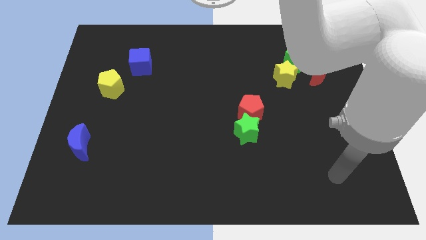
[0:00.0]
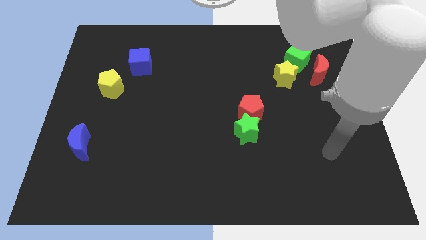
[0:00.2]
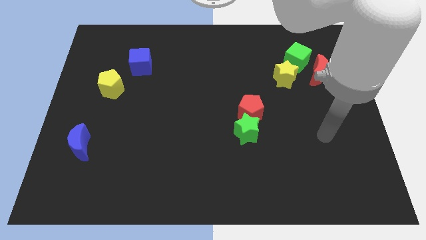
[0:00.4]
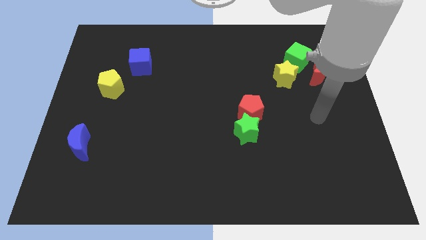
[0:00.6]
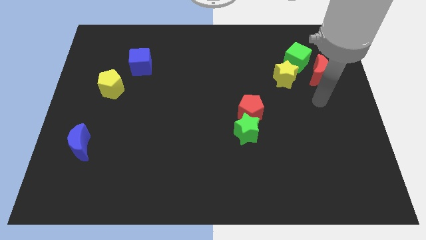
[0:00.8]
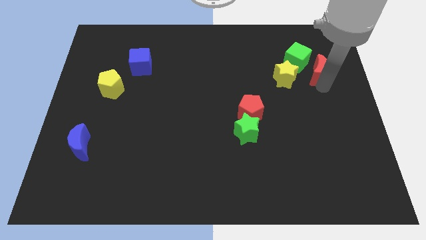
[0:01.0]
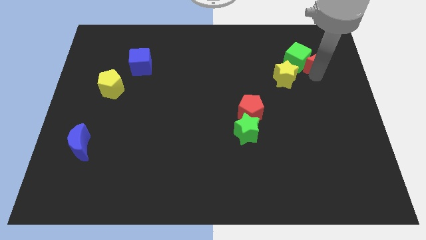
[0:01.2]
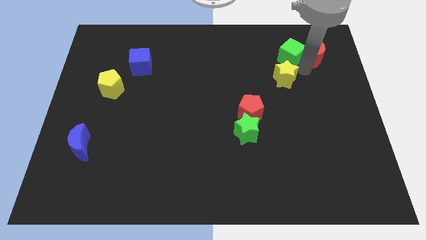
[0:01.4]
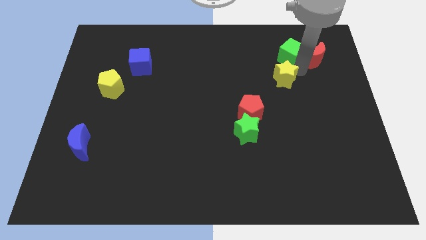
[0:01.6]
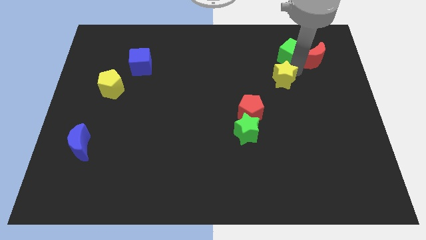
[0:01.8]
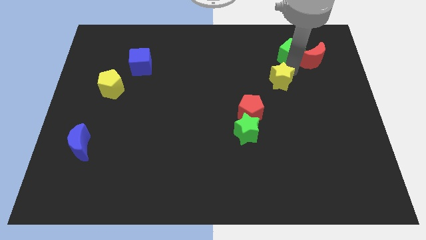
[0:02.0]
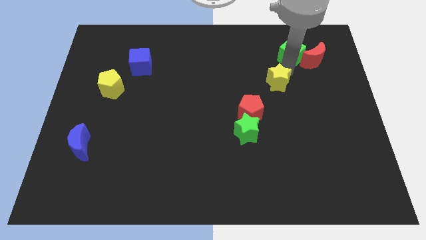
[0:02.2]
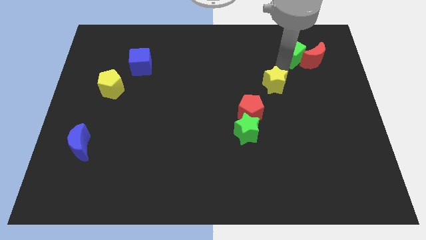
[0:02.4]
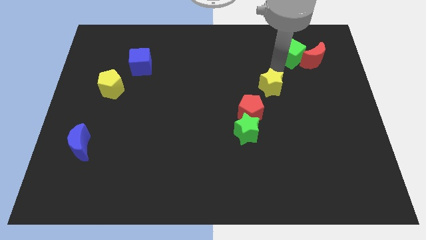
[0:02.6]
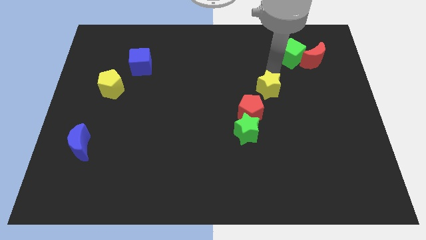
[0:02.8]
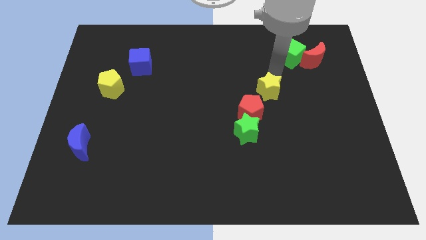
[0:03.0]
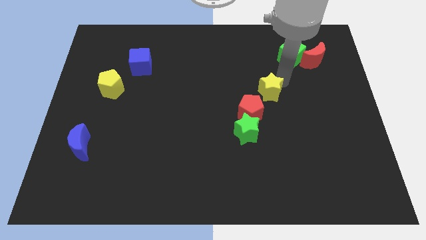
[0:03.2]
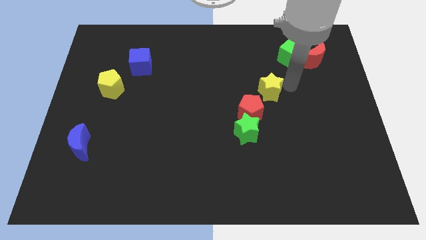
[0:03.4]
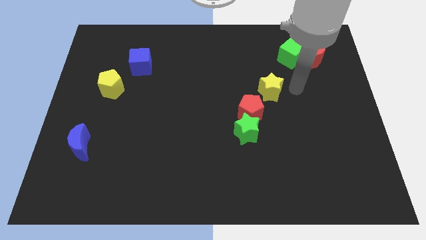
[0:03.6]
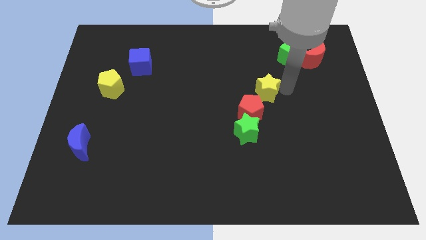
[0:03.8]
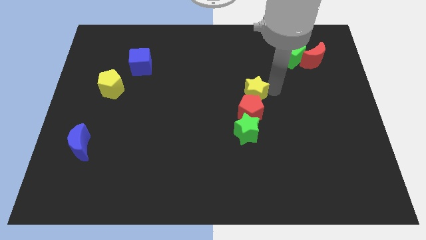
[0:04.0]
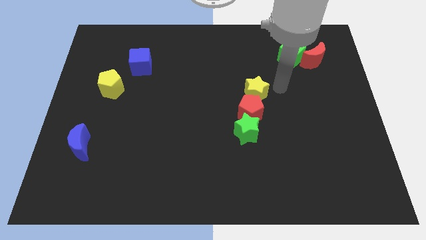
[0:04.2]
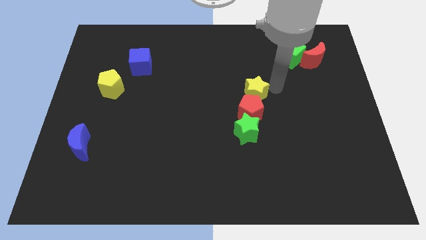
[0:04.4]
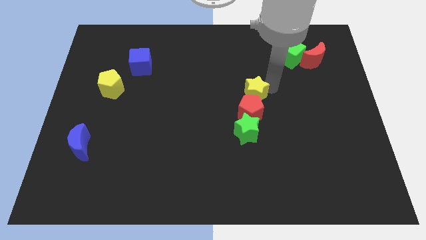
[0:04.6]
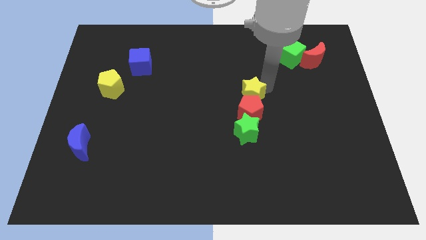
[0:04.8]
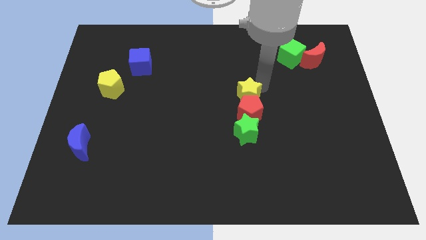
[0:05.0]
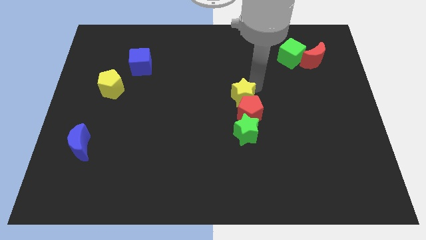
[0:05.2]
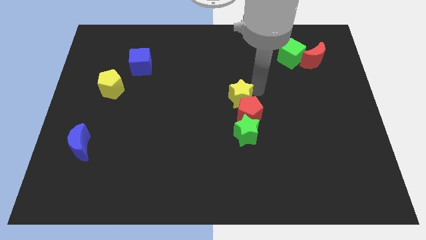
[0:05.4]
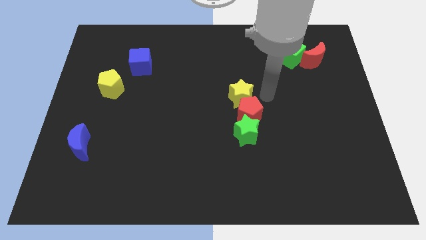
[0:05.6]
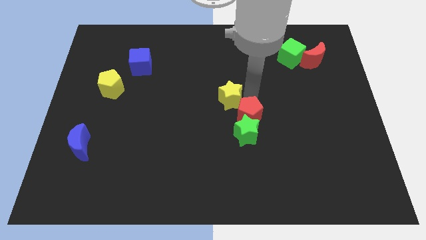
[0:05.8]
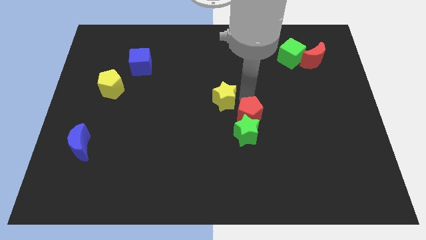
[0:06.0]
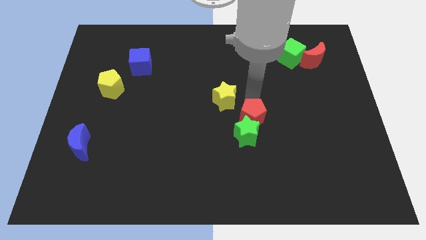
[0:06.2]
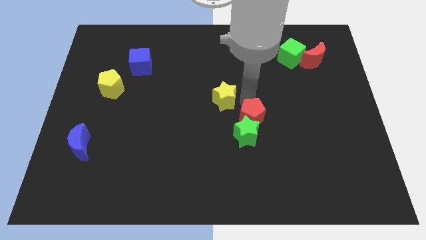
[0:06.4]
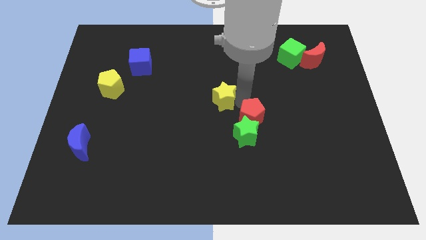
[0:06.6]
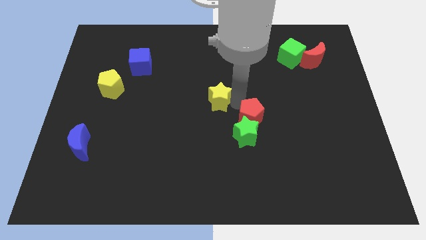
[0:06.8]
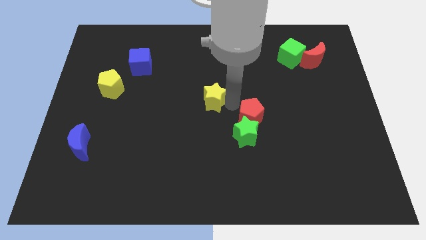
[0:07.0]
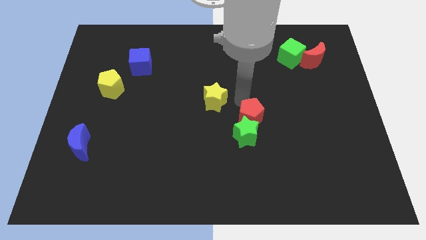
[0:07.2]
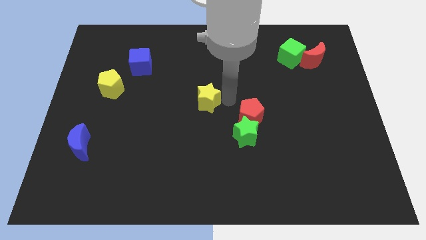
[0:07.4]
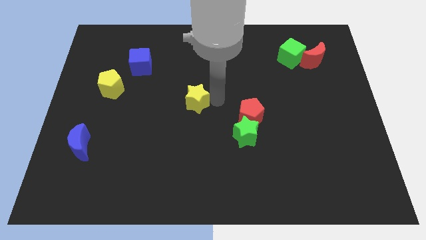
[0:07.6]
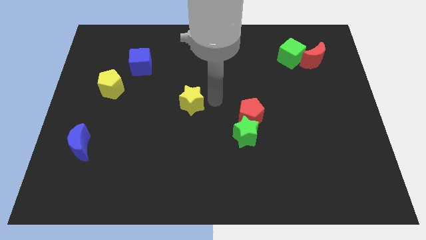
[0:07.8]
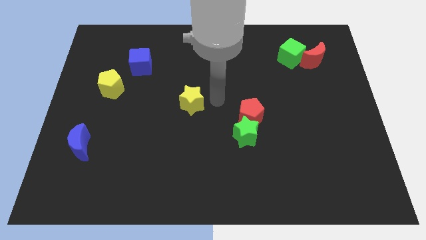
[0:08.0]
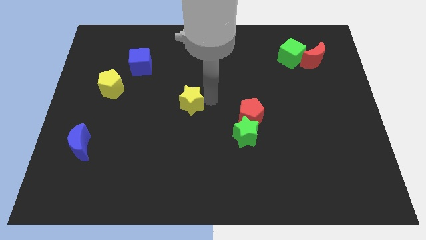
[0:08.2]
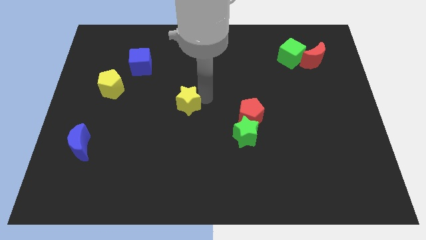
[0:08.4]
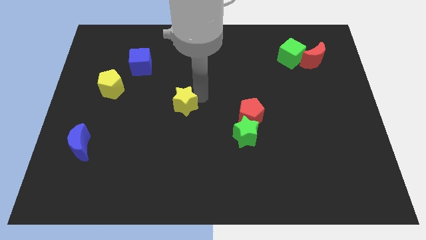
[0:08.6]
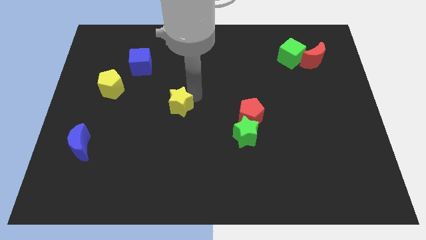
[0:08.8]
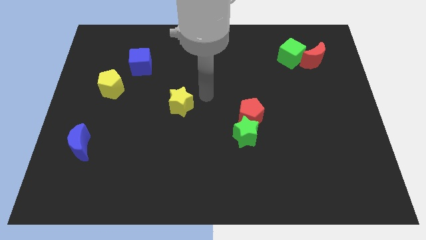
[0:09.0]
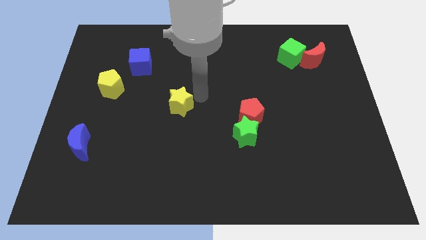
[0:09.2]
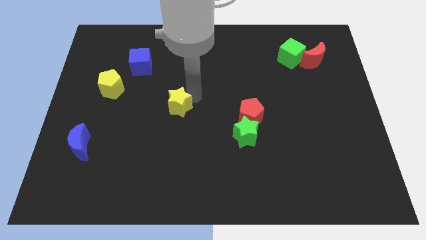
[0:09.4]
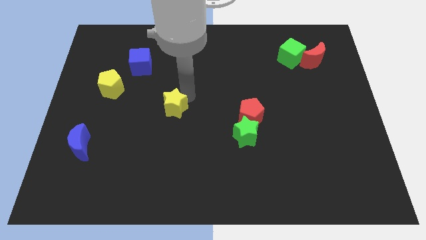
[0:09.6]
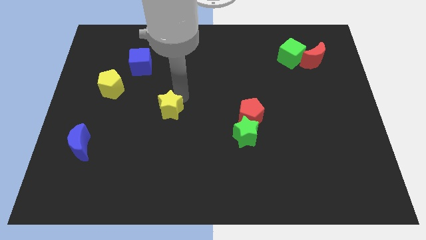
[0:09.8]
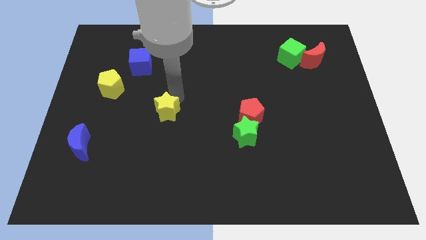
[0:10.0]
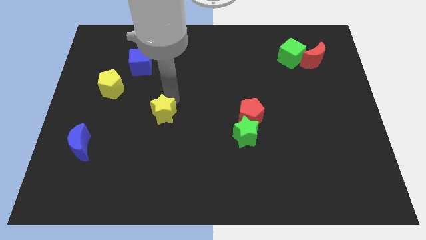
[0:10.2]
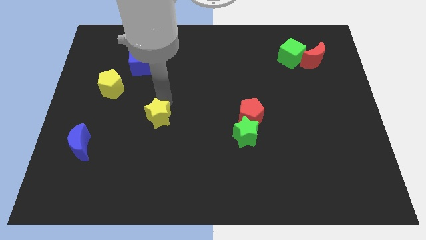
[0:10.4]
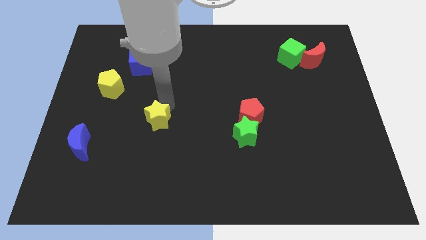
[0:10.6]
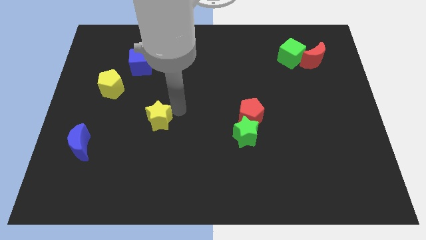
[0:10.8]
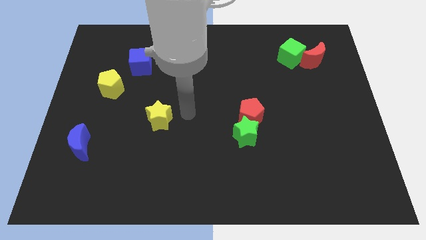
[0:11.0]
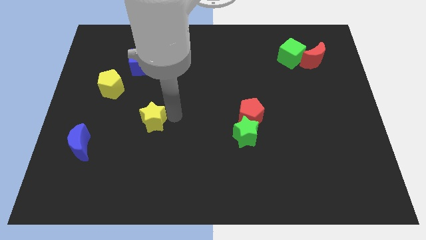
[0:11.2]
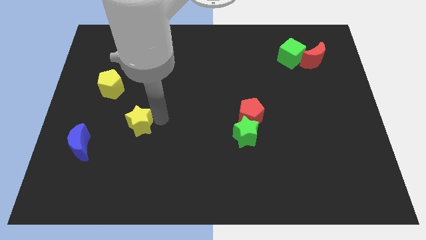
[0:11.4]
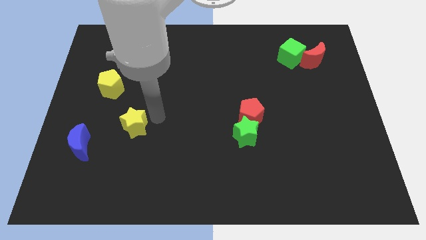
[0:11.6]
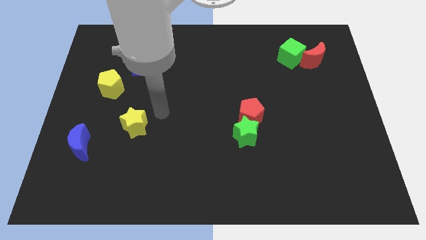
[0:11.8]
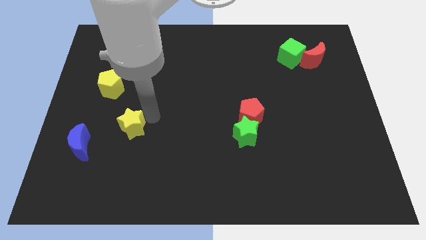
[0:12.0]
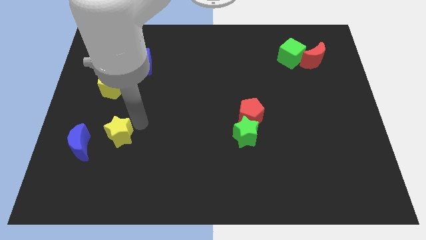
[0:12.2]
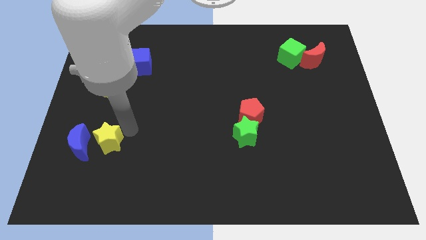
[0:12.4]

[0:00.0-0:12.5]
move the yellow star close to the blue moon

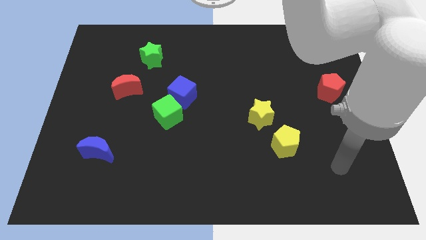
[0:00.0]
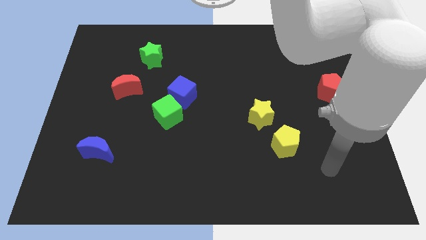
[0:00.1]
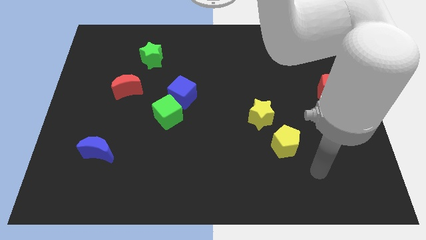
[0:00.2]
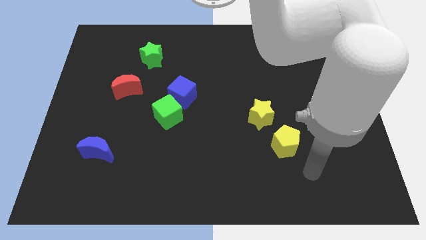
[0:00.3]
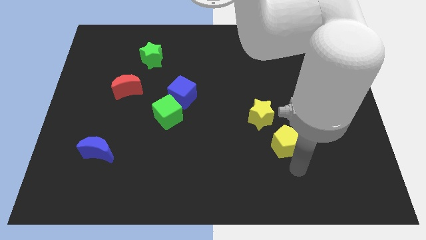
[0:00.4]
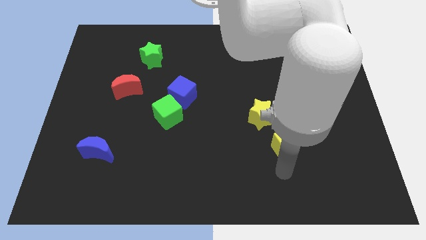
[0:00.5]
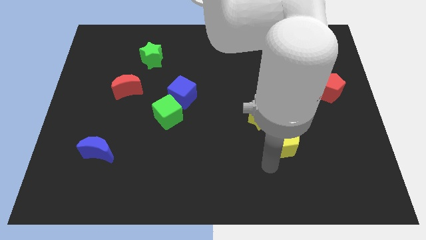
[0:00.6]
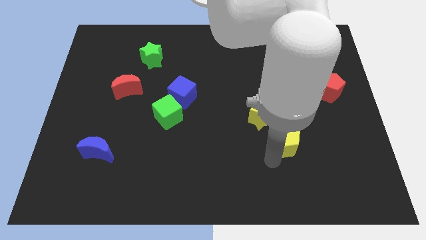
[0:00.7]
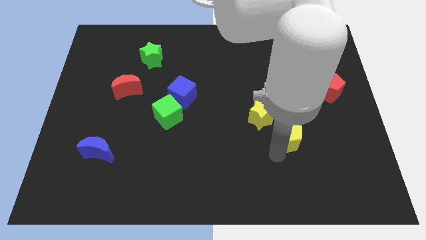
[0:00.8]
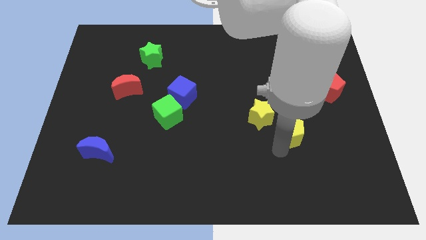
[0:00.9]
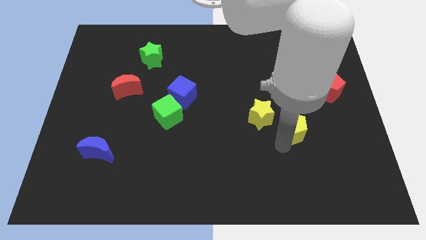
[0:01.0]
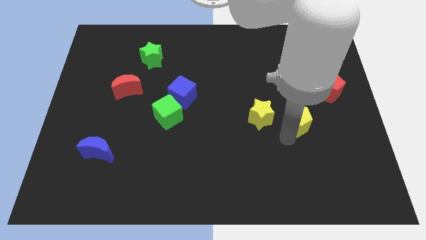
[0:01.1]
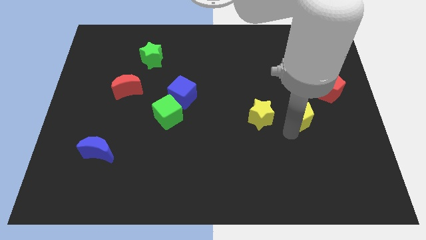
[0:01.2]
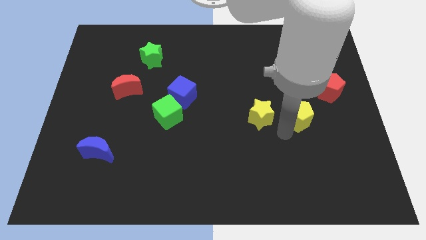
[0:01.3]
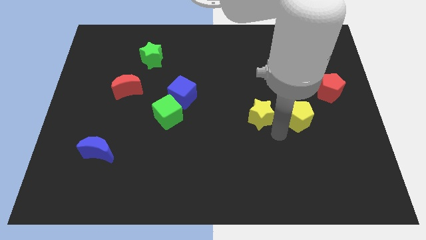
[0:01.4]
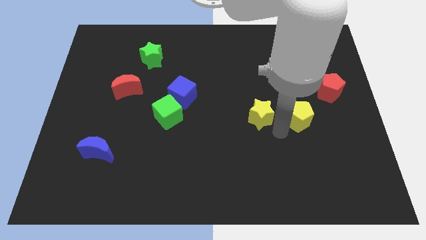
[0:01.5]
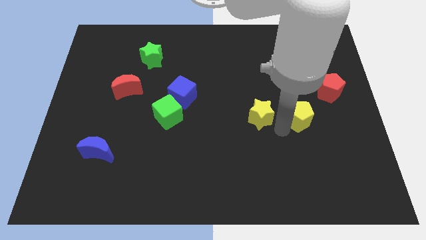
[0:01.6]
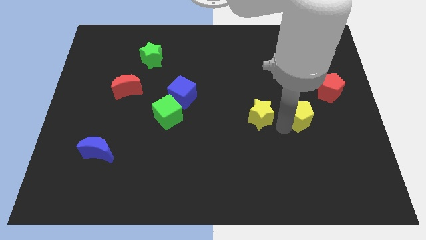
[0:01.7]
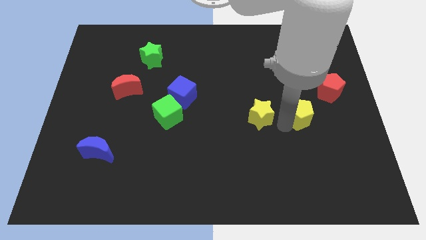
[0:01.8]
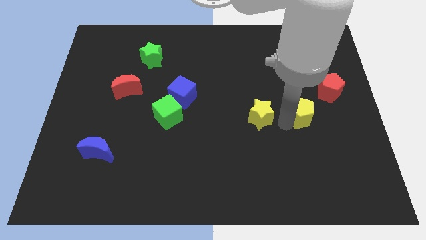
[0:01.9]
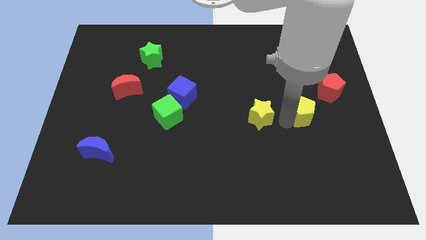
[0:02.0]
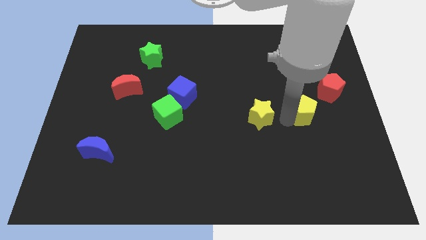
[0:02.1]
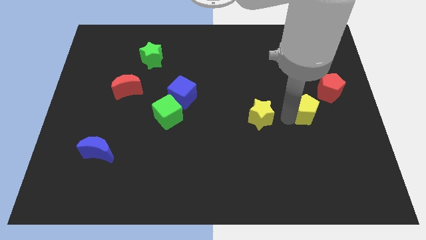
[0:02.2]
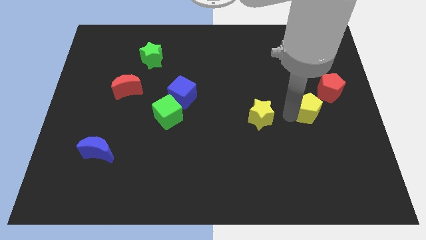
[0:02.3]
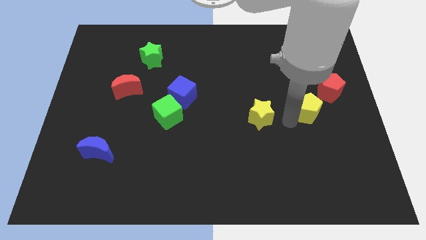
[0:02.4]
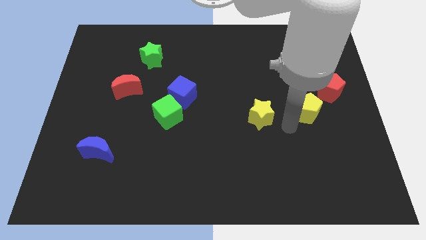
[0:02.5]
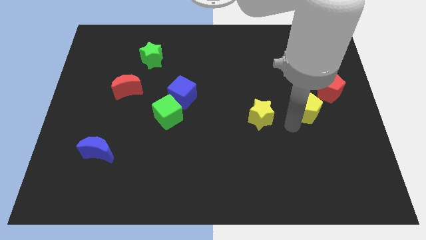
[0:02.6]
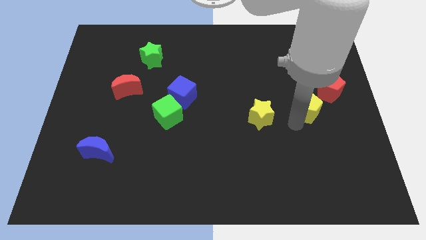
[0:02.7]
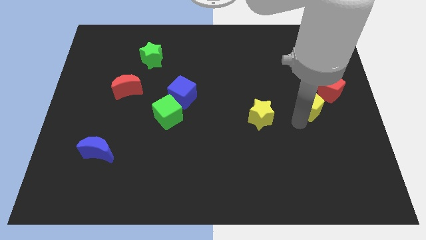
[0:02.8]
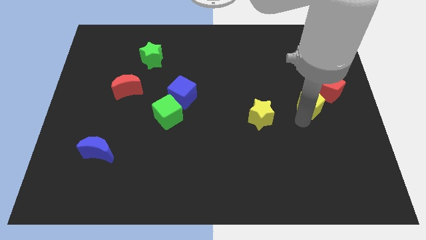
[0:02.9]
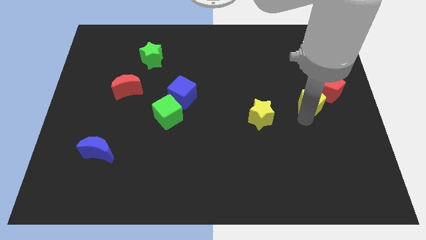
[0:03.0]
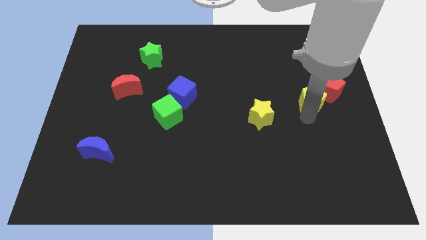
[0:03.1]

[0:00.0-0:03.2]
move the yellow pentagon close to the red pentagon
